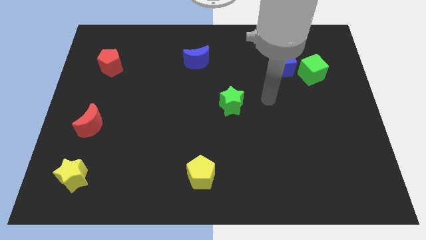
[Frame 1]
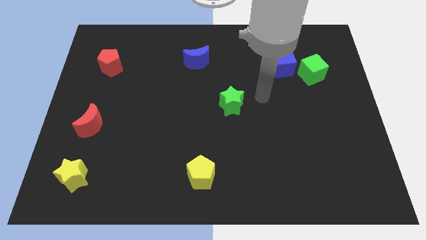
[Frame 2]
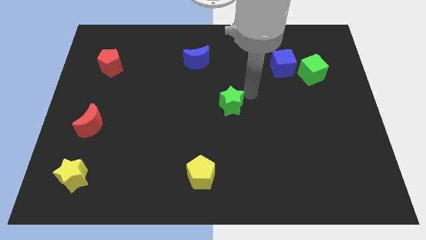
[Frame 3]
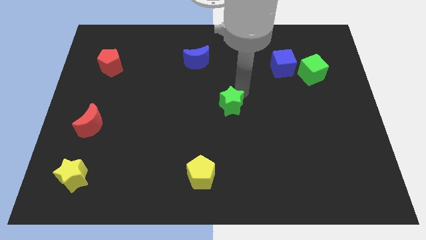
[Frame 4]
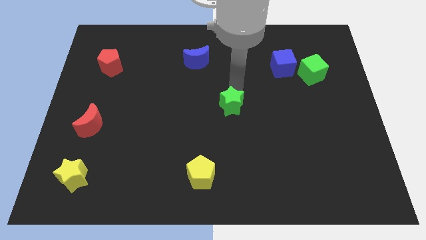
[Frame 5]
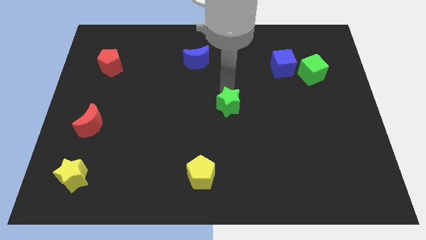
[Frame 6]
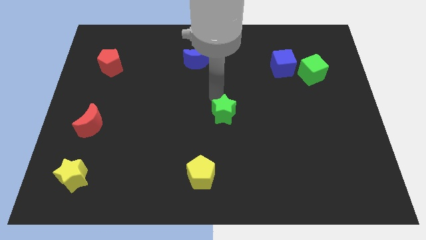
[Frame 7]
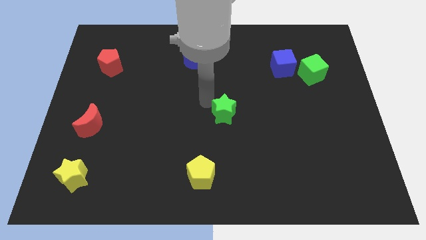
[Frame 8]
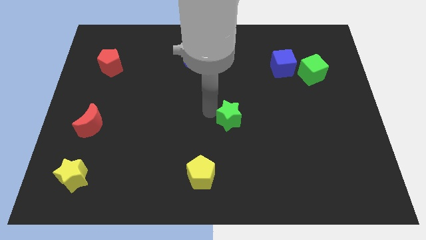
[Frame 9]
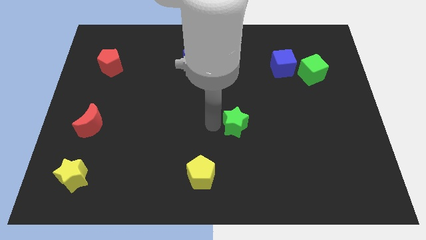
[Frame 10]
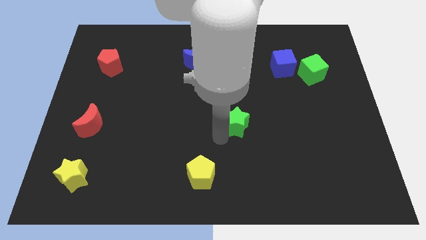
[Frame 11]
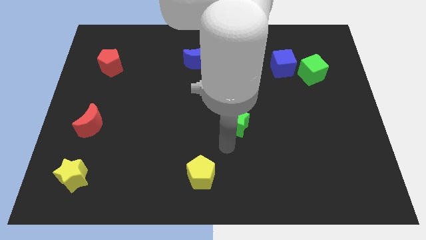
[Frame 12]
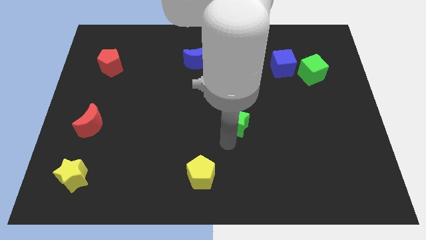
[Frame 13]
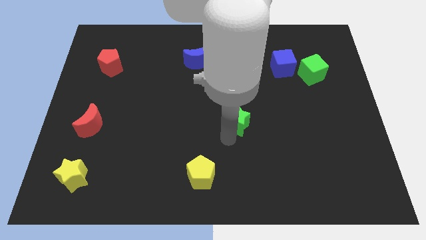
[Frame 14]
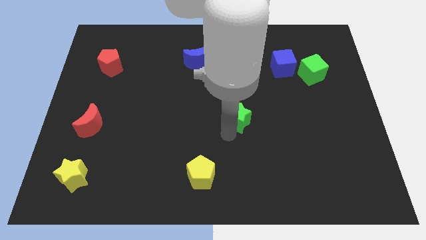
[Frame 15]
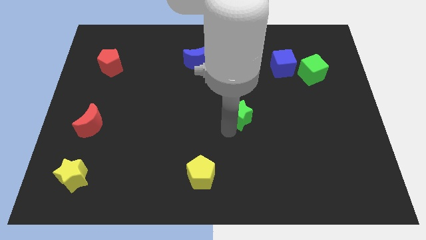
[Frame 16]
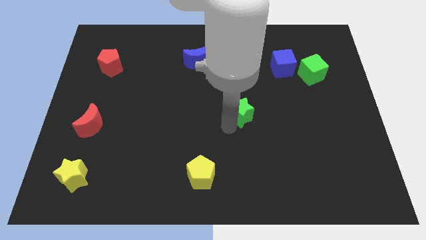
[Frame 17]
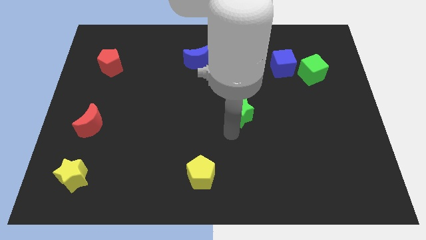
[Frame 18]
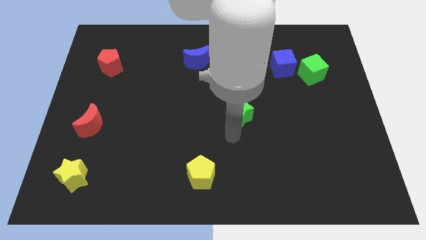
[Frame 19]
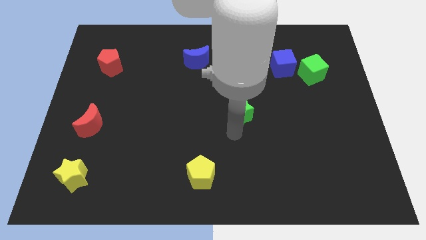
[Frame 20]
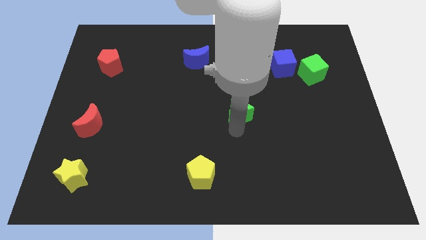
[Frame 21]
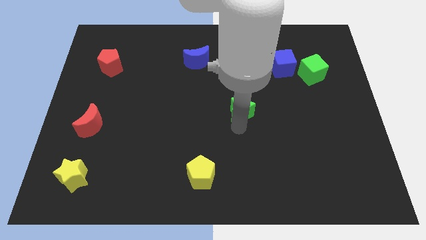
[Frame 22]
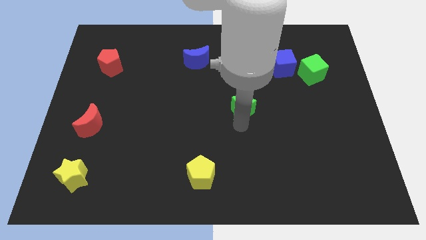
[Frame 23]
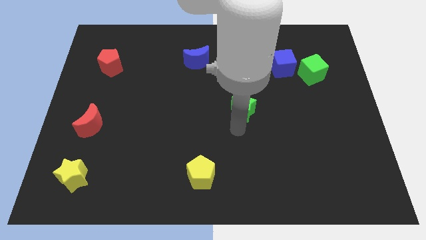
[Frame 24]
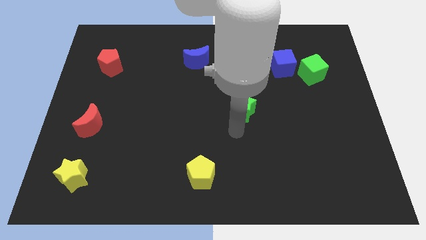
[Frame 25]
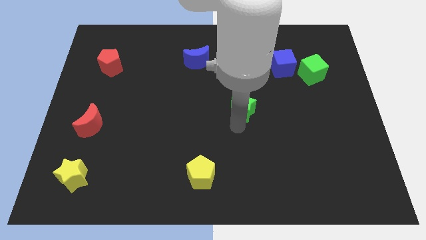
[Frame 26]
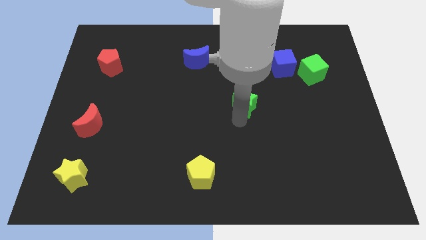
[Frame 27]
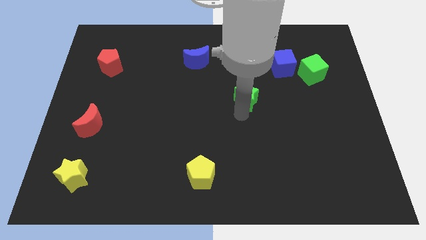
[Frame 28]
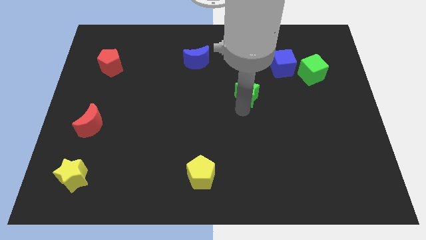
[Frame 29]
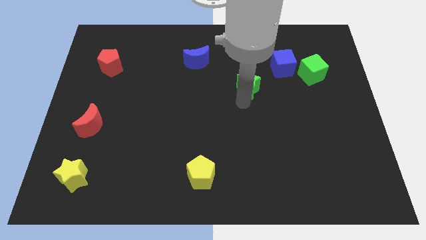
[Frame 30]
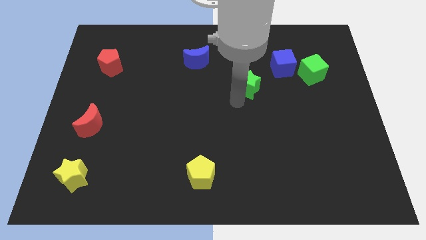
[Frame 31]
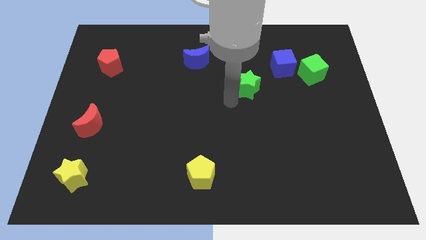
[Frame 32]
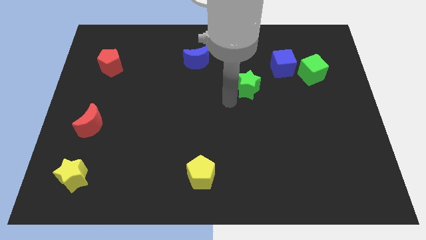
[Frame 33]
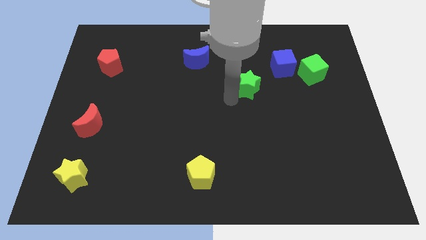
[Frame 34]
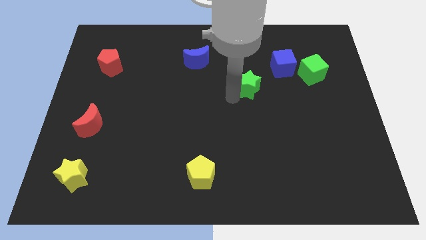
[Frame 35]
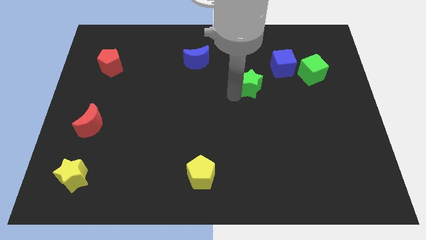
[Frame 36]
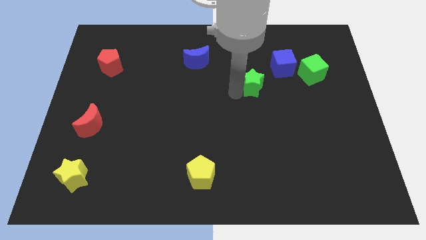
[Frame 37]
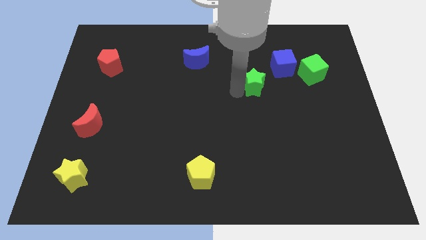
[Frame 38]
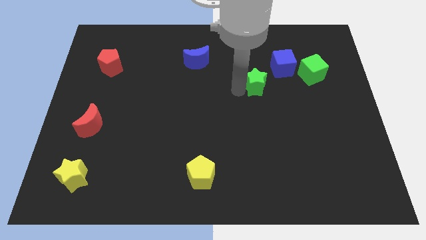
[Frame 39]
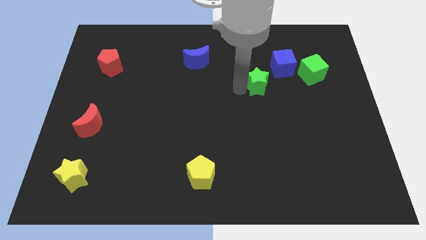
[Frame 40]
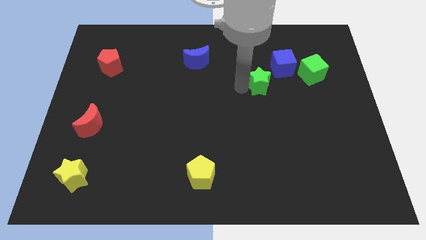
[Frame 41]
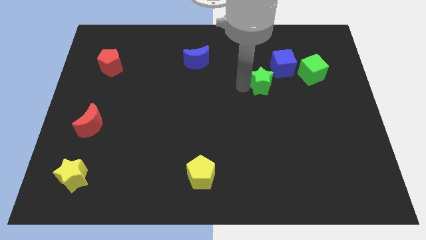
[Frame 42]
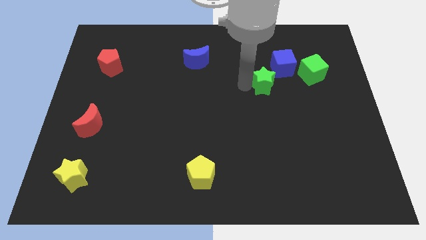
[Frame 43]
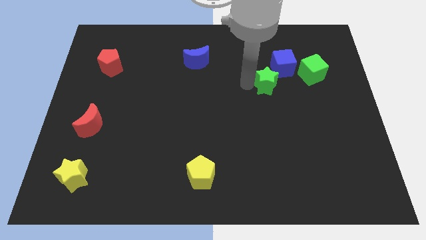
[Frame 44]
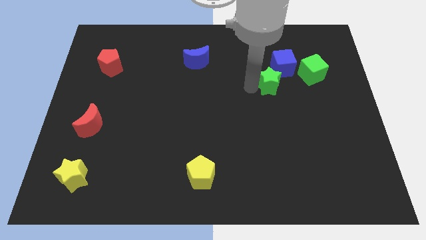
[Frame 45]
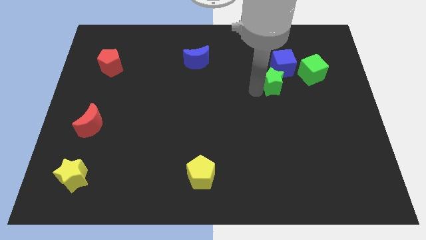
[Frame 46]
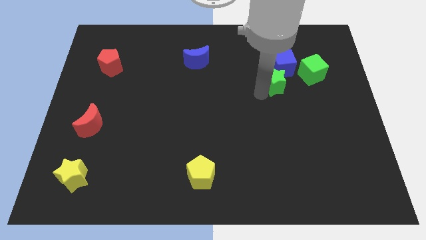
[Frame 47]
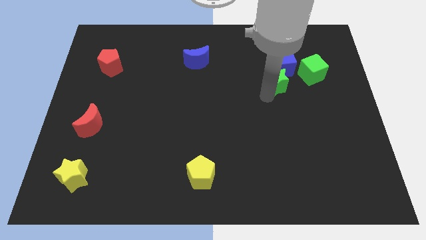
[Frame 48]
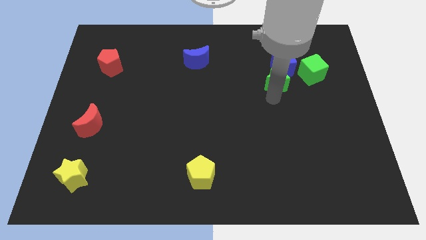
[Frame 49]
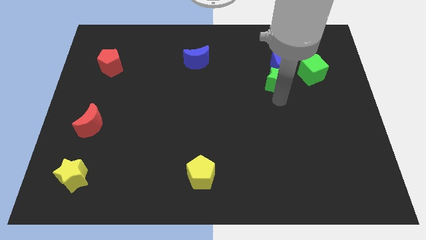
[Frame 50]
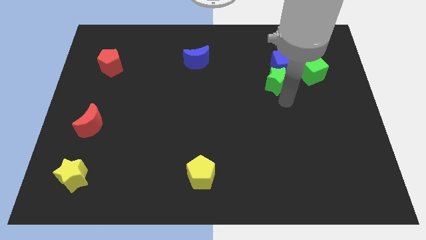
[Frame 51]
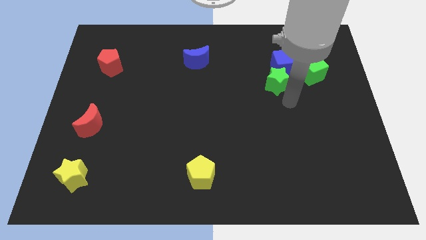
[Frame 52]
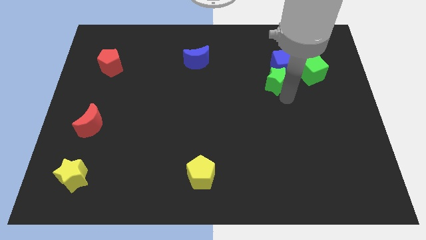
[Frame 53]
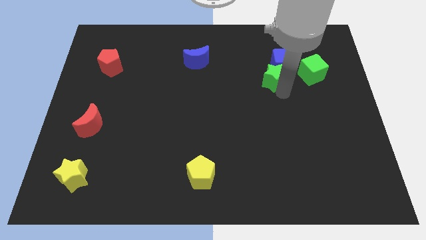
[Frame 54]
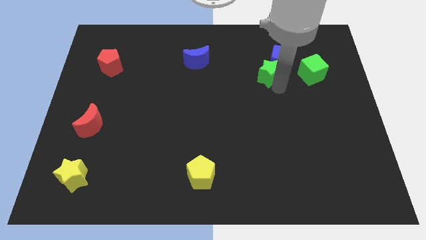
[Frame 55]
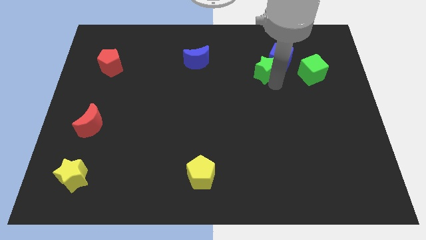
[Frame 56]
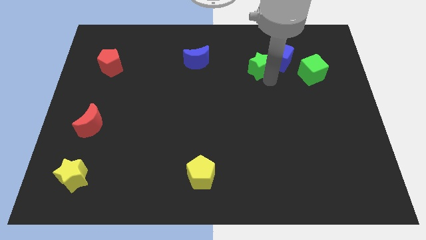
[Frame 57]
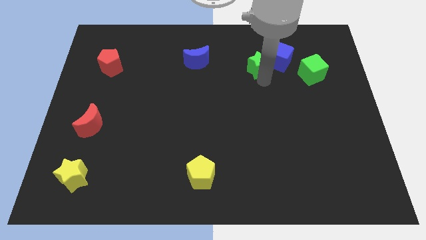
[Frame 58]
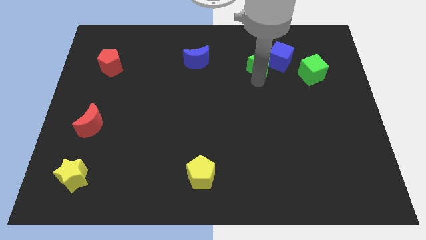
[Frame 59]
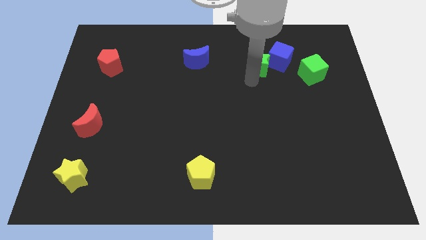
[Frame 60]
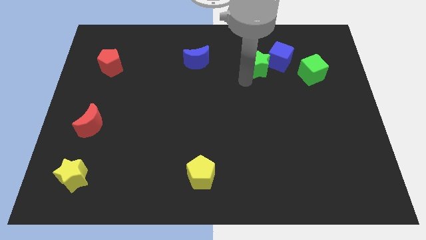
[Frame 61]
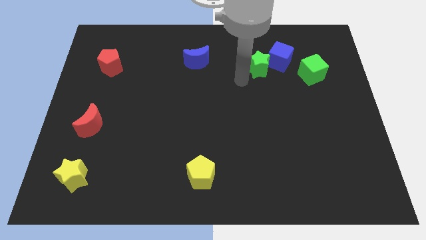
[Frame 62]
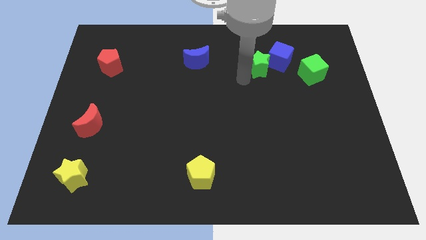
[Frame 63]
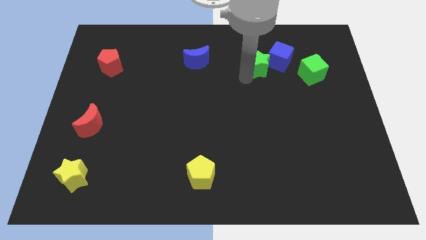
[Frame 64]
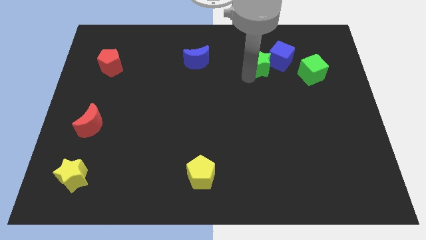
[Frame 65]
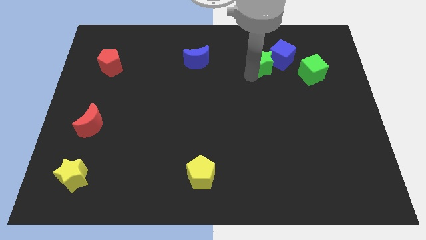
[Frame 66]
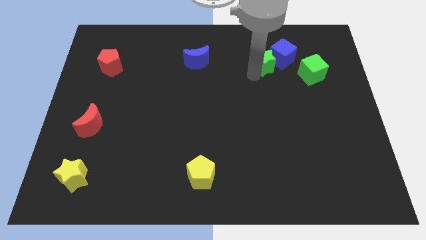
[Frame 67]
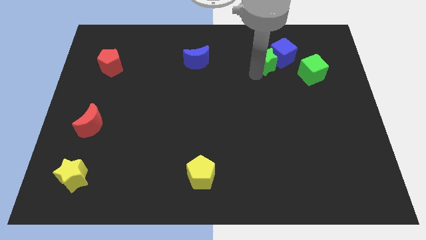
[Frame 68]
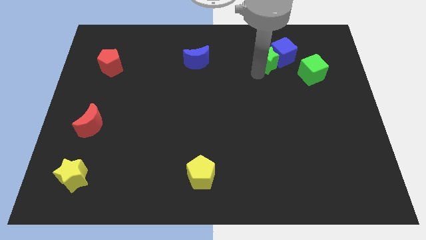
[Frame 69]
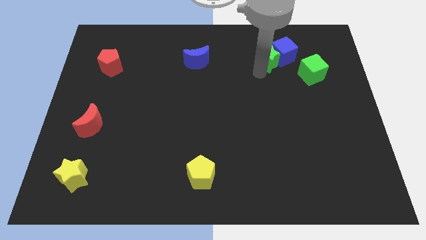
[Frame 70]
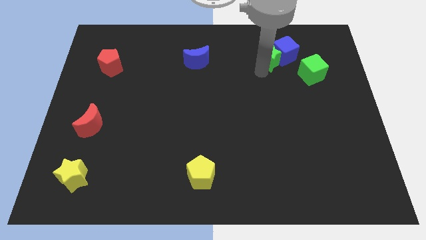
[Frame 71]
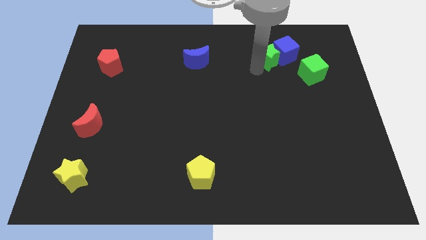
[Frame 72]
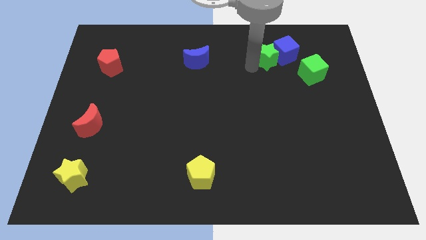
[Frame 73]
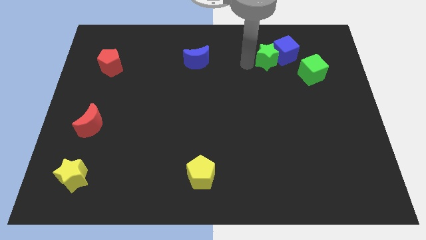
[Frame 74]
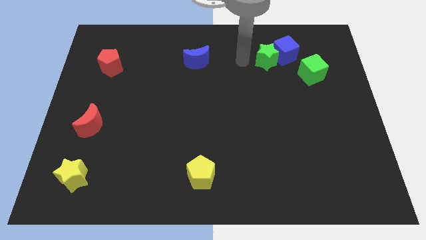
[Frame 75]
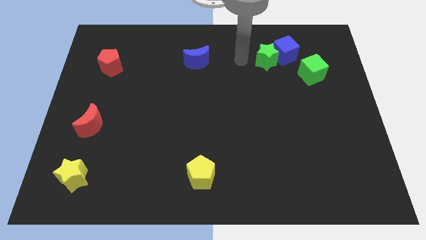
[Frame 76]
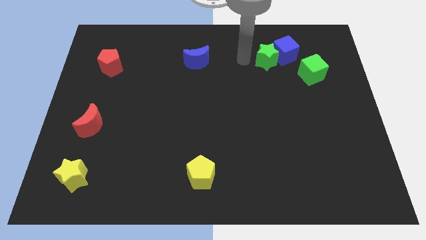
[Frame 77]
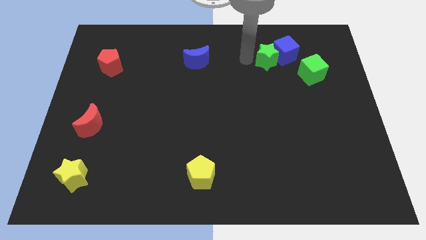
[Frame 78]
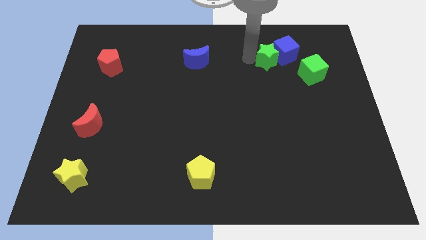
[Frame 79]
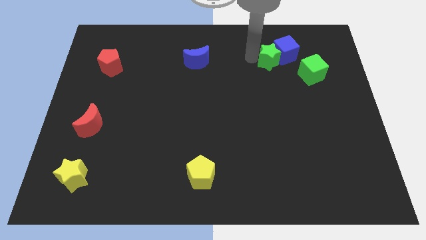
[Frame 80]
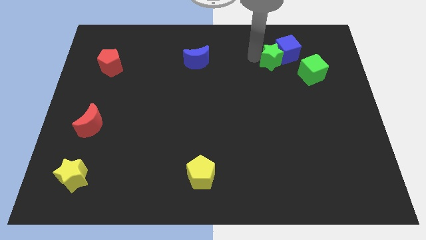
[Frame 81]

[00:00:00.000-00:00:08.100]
move the green star to the top left side of the green cube
